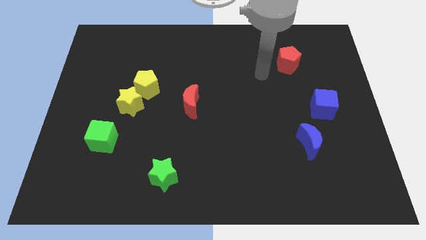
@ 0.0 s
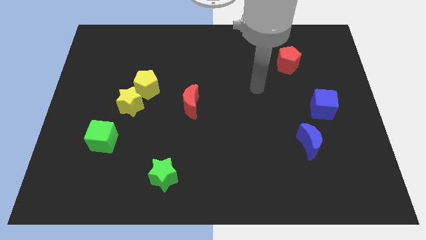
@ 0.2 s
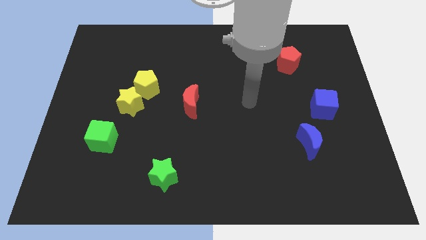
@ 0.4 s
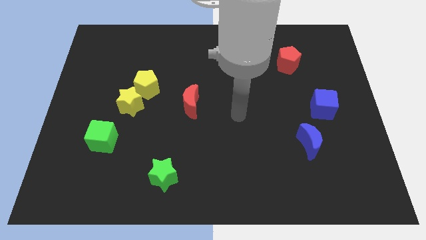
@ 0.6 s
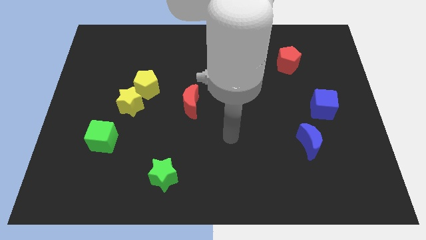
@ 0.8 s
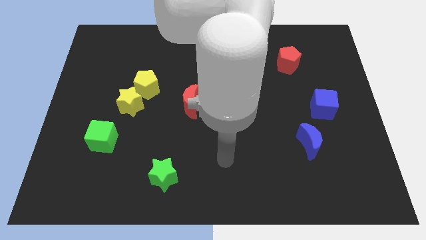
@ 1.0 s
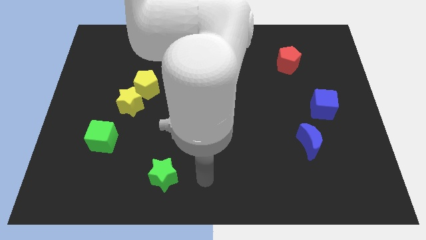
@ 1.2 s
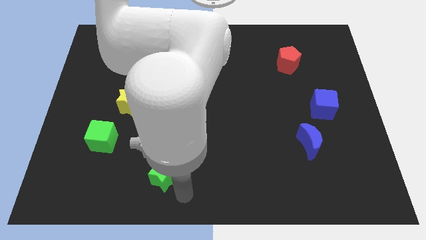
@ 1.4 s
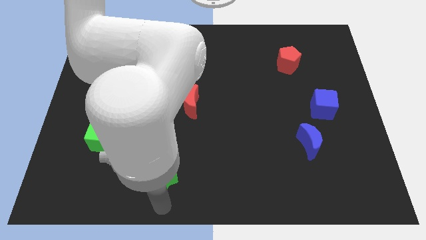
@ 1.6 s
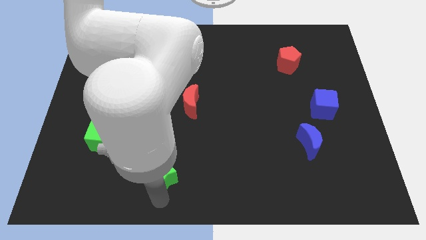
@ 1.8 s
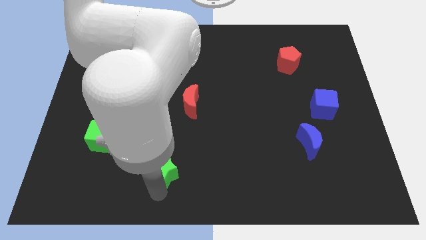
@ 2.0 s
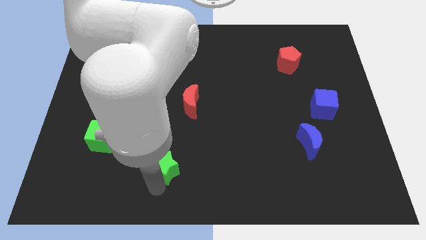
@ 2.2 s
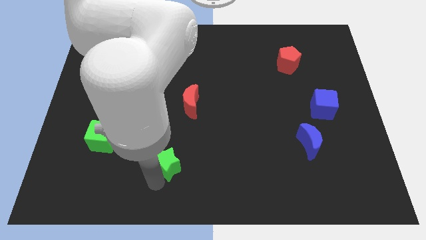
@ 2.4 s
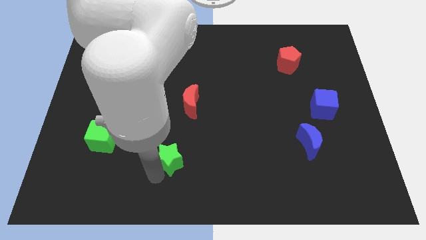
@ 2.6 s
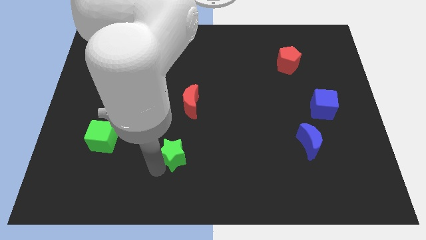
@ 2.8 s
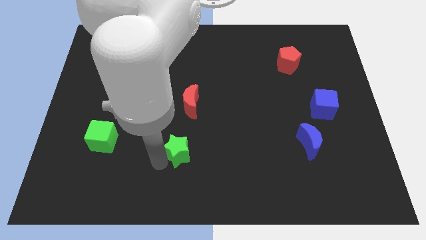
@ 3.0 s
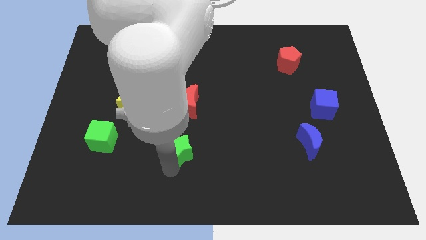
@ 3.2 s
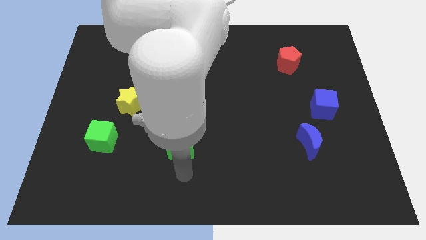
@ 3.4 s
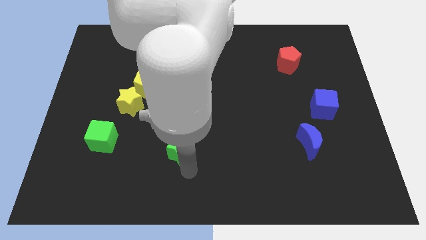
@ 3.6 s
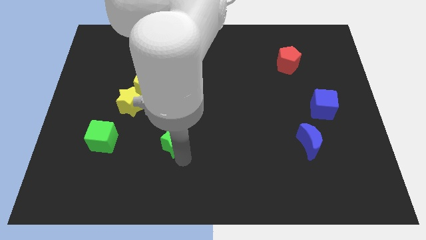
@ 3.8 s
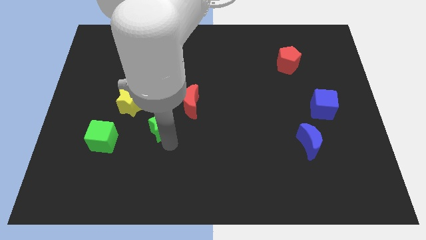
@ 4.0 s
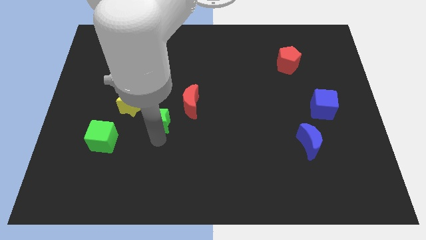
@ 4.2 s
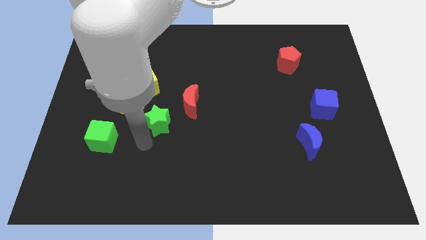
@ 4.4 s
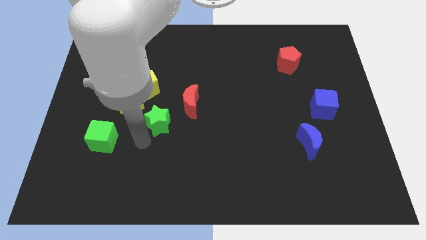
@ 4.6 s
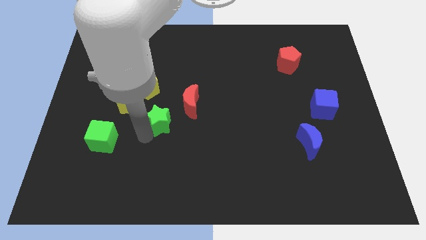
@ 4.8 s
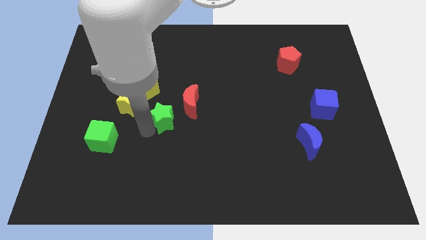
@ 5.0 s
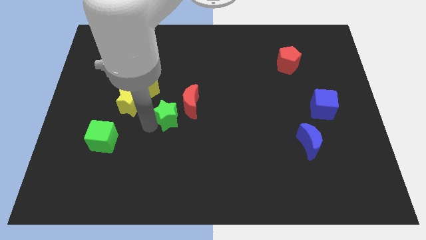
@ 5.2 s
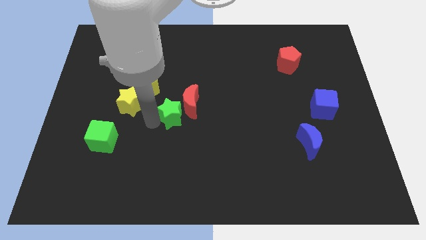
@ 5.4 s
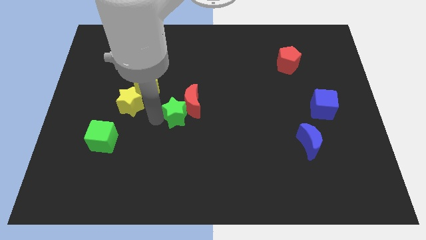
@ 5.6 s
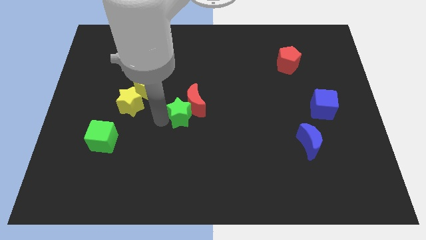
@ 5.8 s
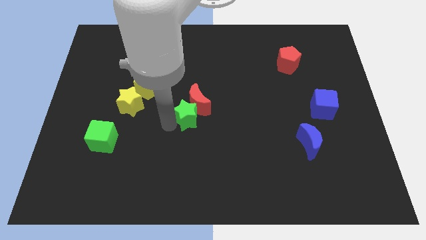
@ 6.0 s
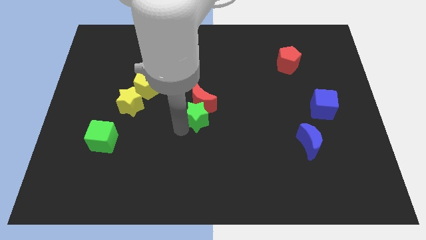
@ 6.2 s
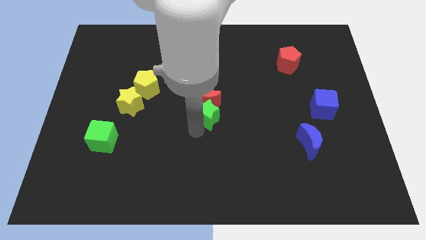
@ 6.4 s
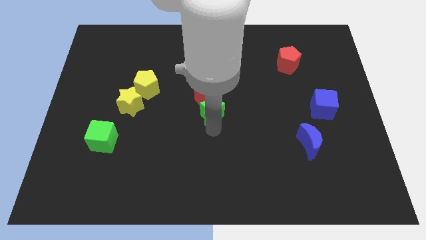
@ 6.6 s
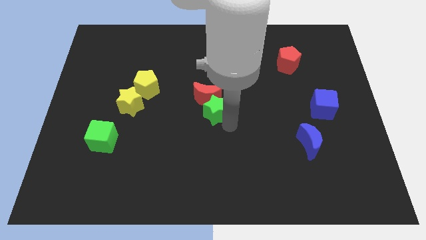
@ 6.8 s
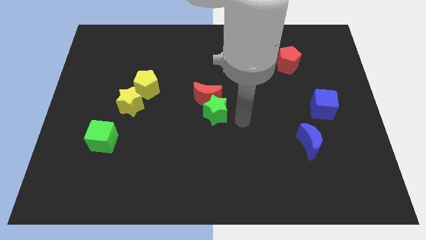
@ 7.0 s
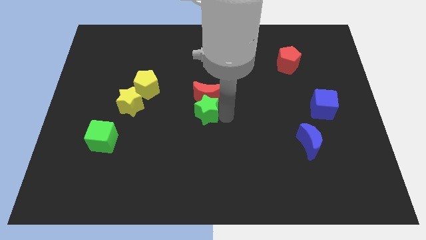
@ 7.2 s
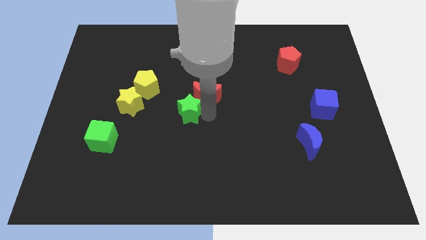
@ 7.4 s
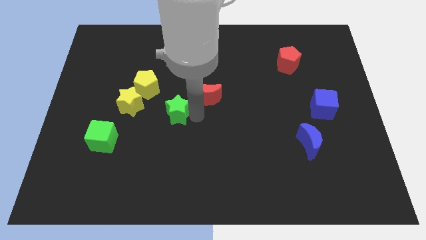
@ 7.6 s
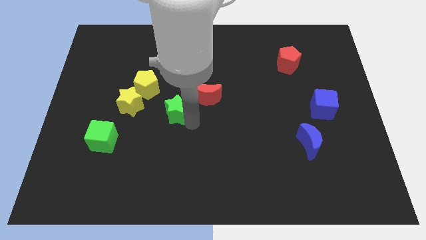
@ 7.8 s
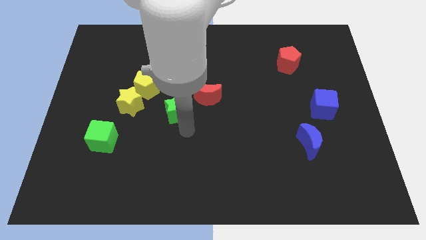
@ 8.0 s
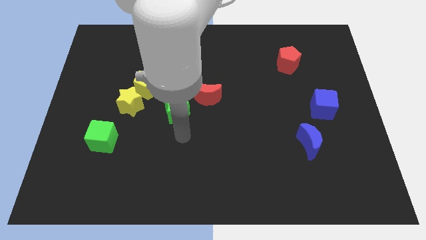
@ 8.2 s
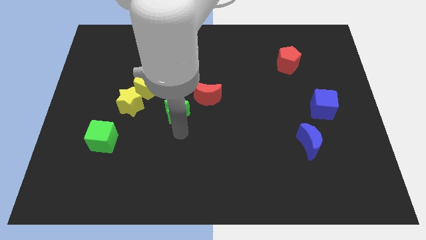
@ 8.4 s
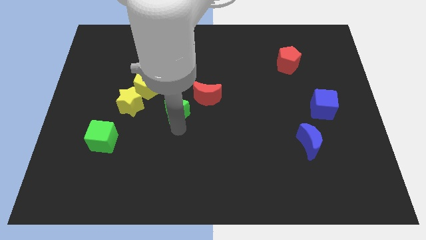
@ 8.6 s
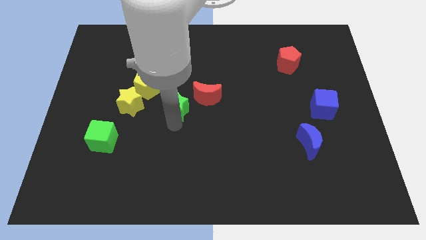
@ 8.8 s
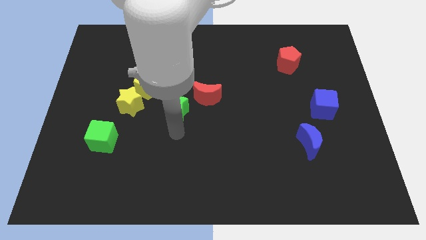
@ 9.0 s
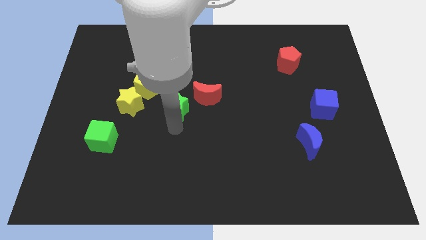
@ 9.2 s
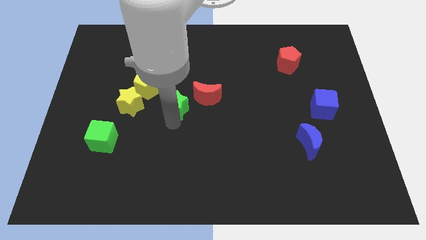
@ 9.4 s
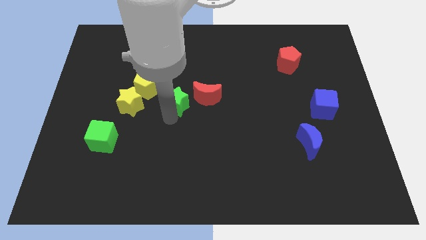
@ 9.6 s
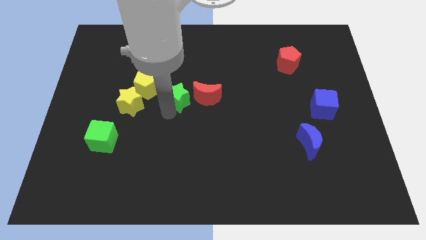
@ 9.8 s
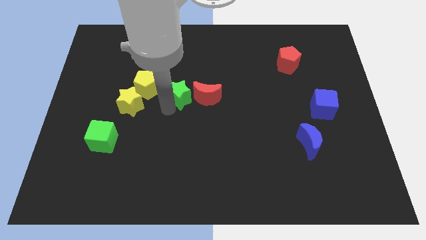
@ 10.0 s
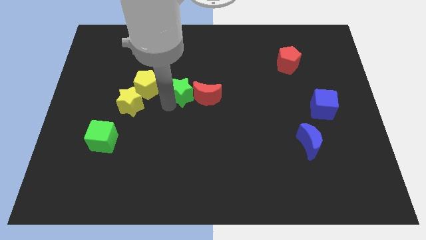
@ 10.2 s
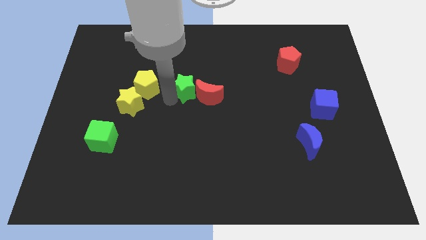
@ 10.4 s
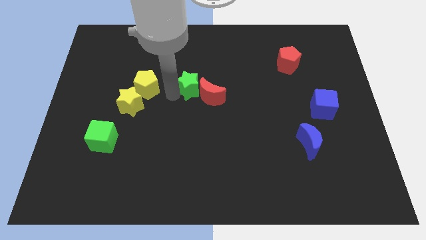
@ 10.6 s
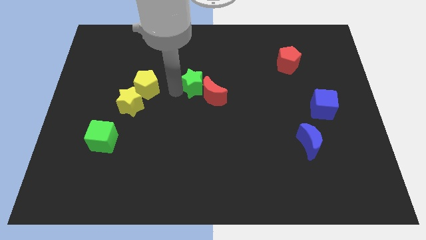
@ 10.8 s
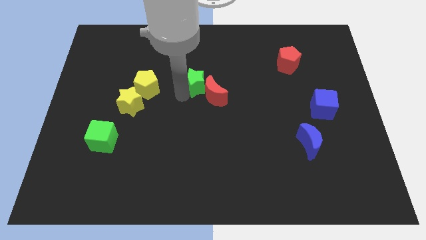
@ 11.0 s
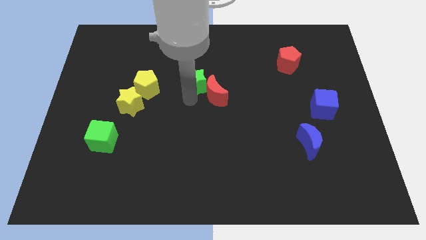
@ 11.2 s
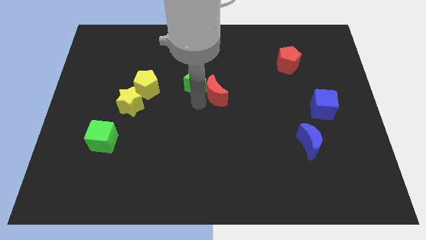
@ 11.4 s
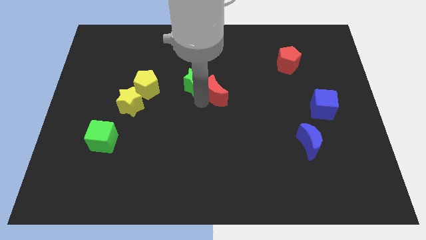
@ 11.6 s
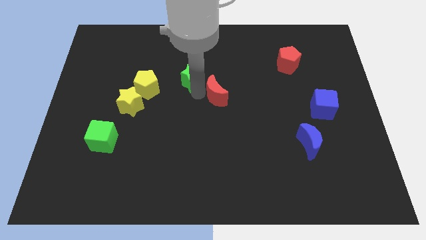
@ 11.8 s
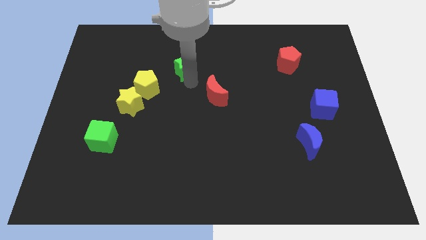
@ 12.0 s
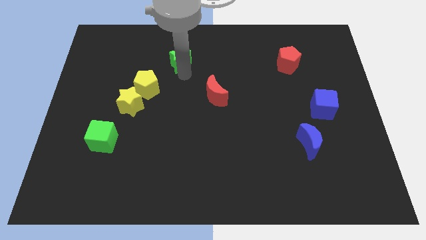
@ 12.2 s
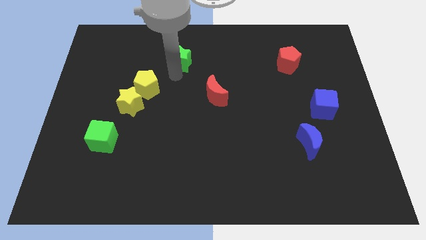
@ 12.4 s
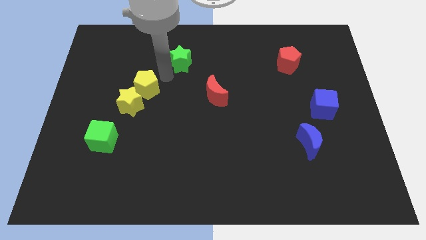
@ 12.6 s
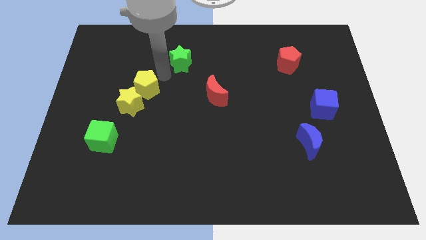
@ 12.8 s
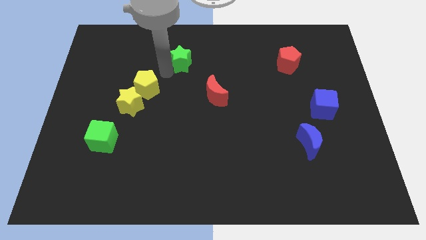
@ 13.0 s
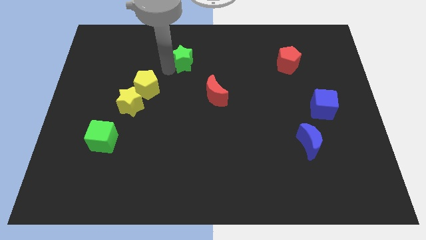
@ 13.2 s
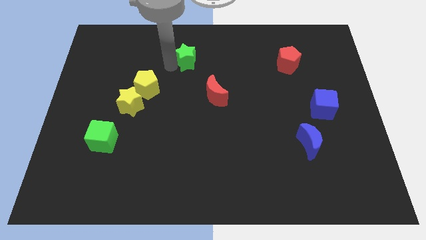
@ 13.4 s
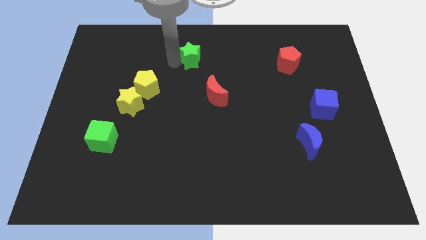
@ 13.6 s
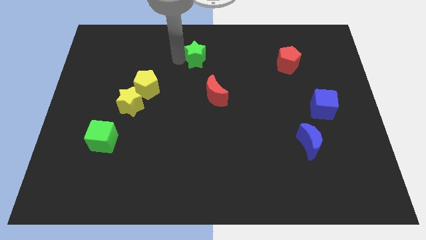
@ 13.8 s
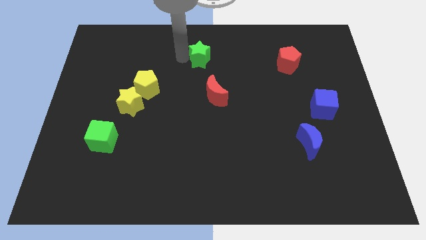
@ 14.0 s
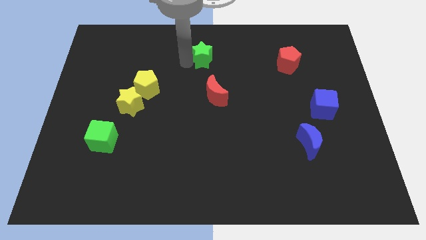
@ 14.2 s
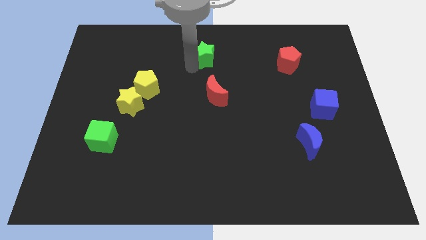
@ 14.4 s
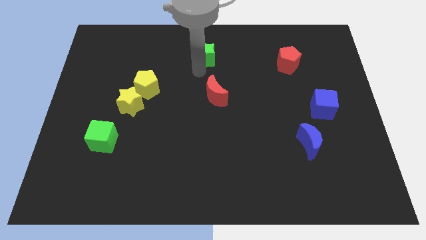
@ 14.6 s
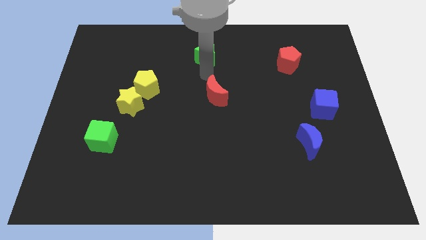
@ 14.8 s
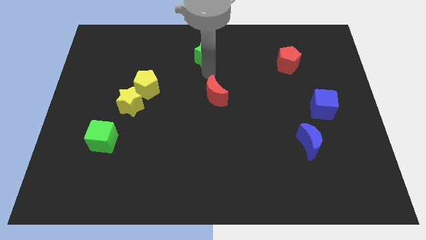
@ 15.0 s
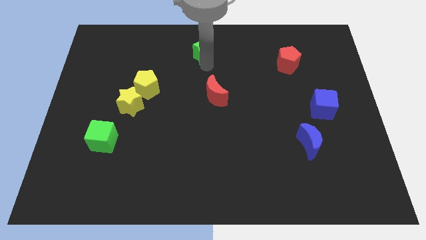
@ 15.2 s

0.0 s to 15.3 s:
put the green star to the top side
